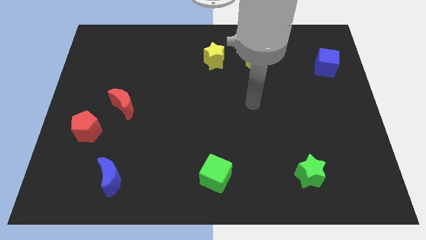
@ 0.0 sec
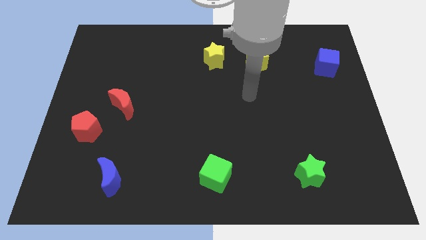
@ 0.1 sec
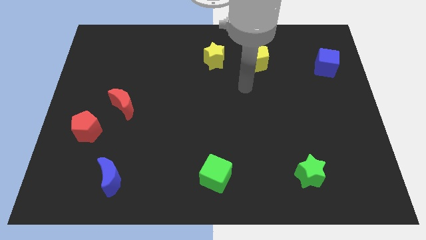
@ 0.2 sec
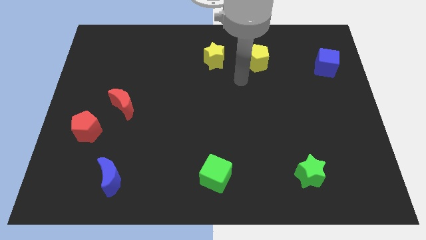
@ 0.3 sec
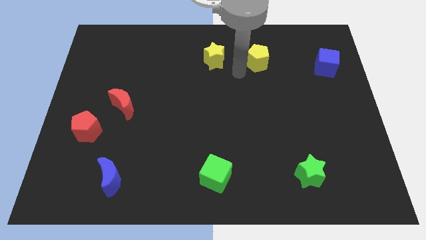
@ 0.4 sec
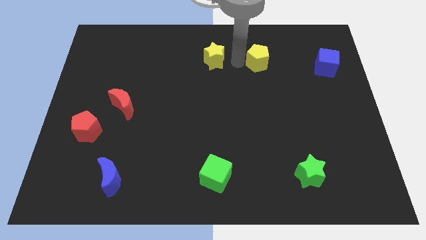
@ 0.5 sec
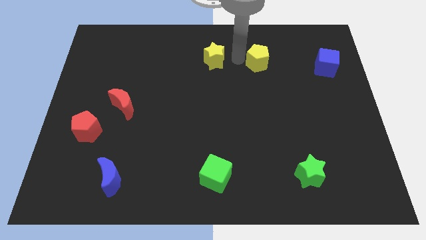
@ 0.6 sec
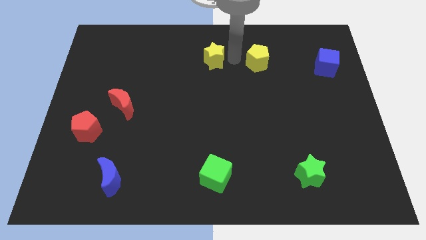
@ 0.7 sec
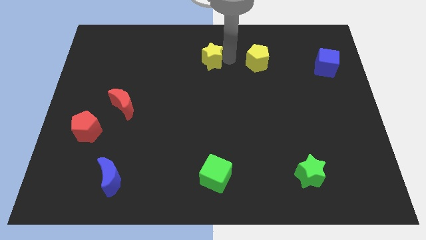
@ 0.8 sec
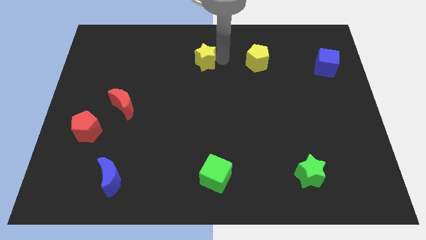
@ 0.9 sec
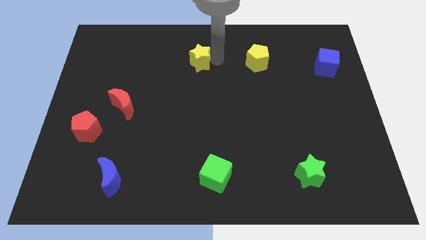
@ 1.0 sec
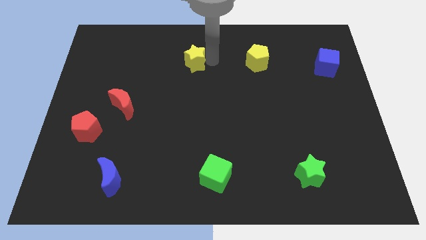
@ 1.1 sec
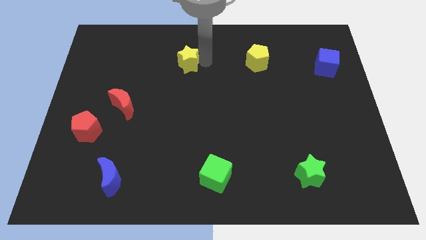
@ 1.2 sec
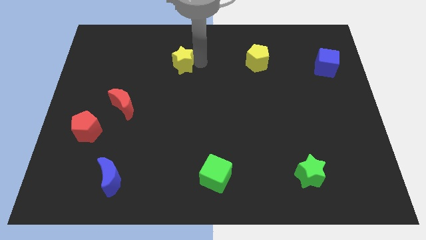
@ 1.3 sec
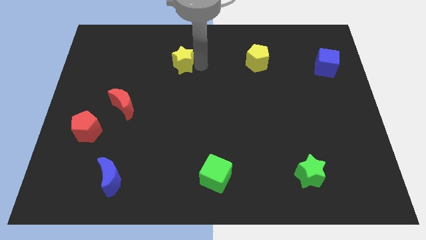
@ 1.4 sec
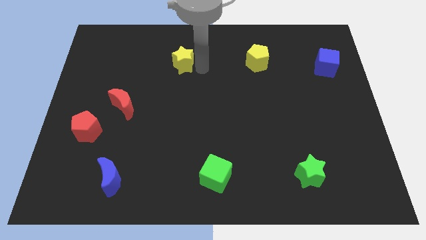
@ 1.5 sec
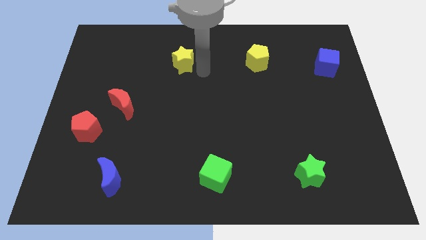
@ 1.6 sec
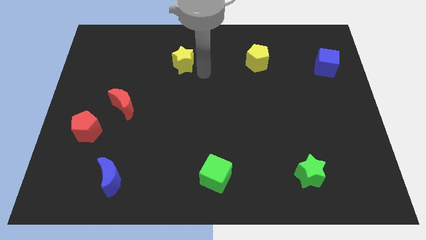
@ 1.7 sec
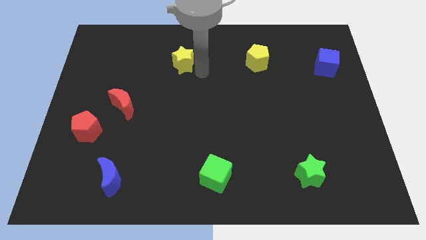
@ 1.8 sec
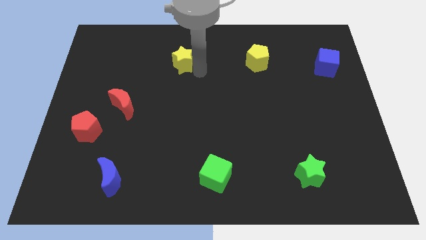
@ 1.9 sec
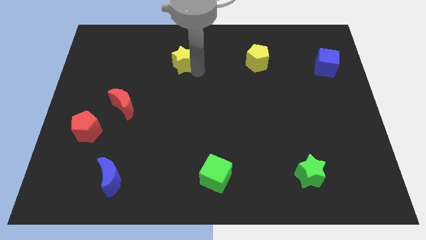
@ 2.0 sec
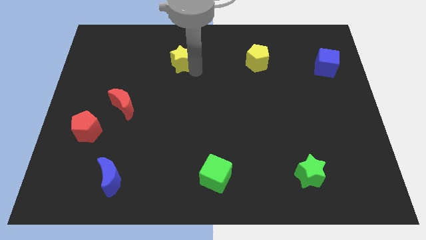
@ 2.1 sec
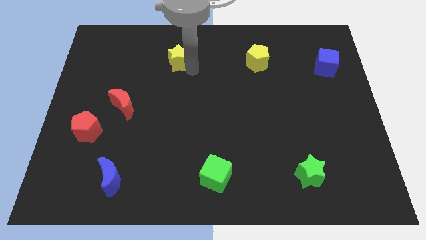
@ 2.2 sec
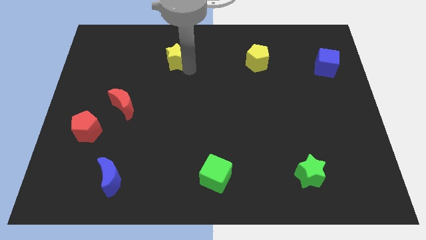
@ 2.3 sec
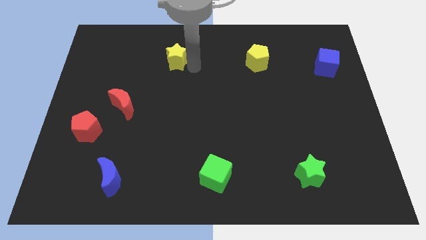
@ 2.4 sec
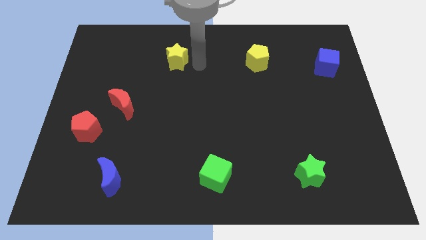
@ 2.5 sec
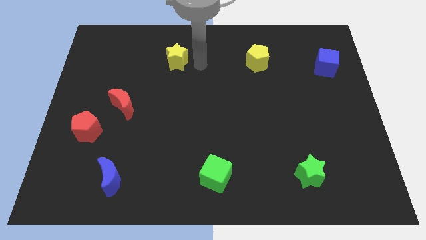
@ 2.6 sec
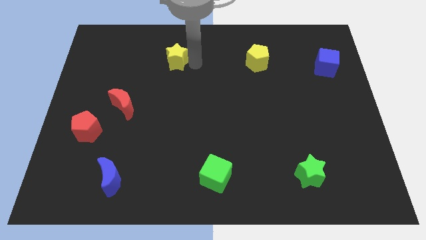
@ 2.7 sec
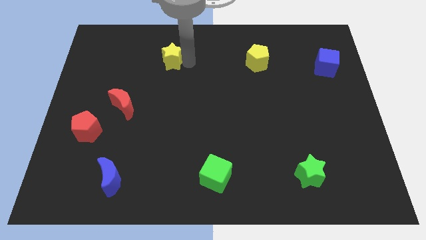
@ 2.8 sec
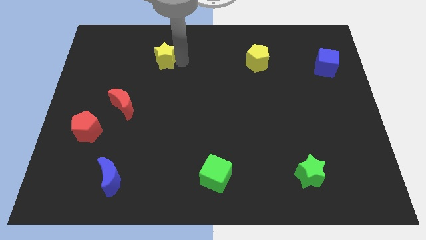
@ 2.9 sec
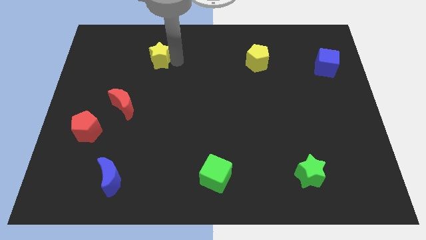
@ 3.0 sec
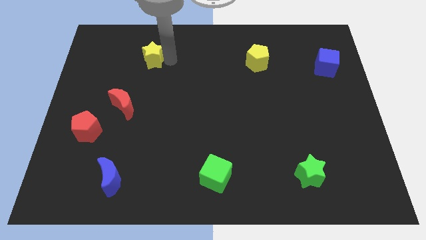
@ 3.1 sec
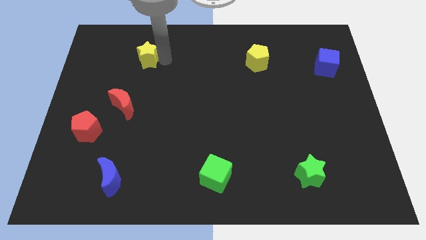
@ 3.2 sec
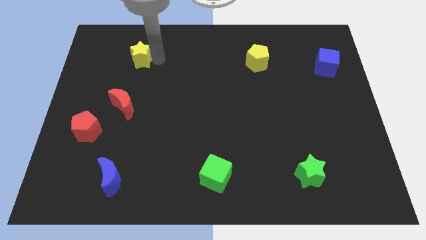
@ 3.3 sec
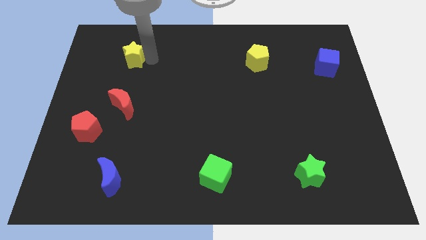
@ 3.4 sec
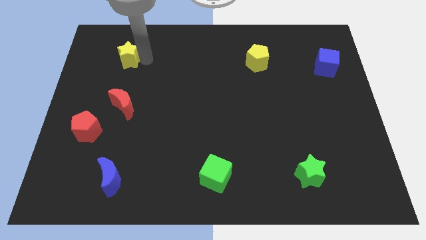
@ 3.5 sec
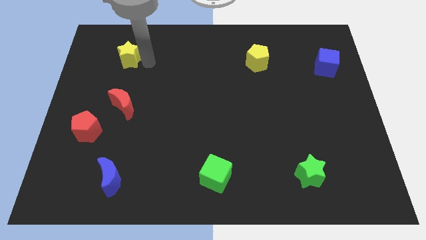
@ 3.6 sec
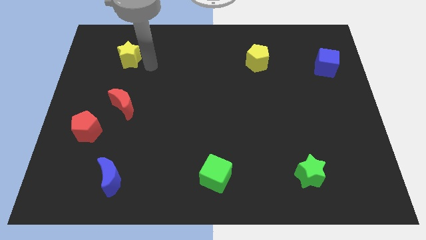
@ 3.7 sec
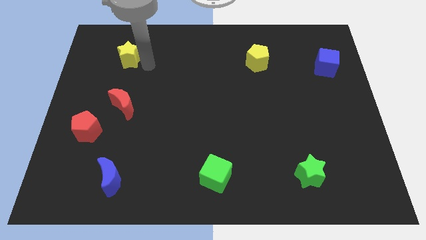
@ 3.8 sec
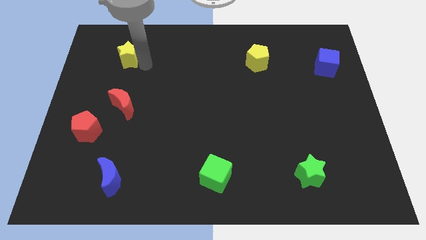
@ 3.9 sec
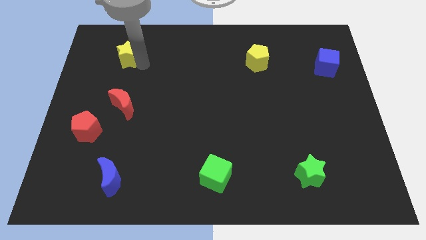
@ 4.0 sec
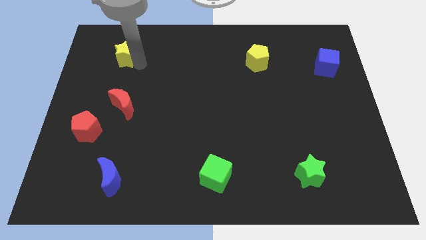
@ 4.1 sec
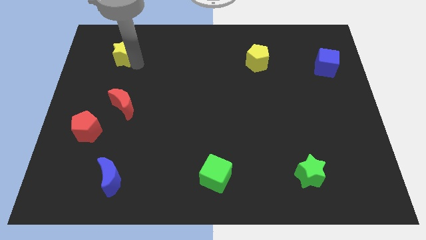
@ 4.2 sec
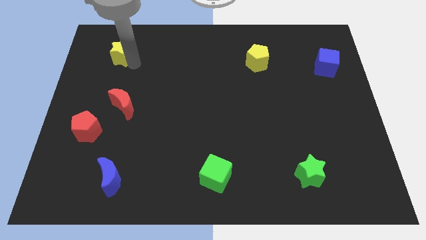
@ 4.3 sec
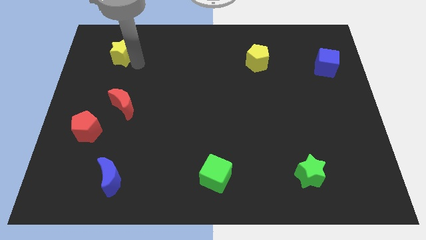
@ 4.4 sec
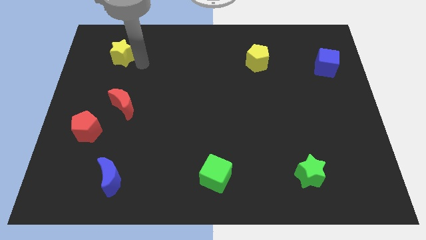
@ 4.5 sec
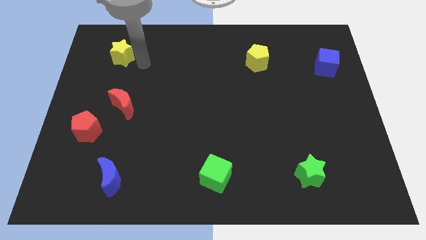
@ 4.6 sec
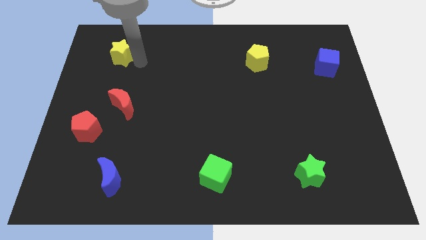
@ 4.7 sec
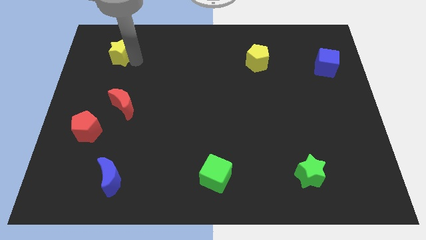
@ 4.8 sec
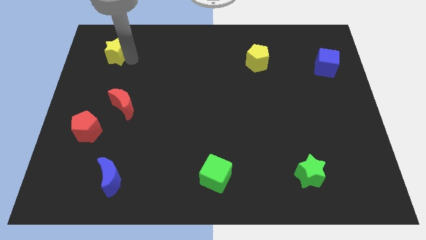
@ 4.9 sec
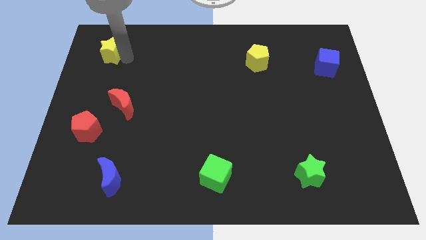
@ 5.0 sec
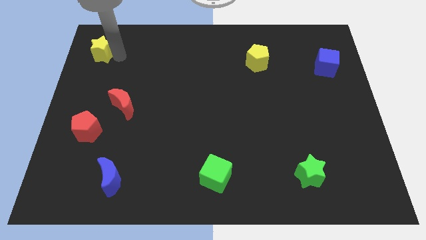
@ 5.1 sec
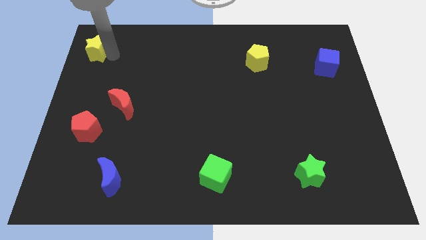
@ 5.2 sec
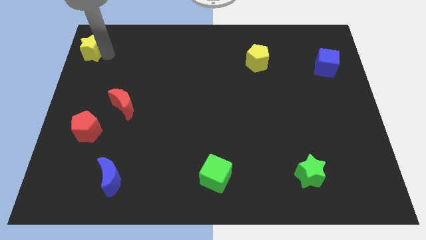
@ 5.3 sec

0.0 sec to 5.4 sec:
put the yellow star to the upper left corner

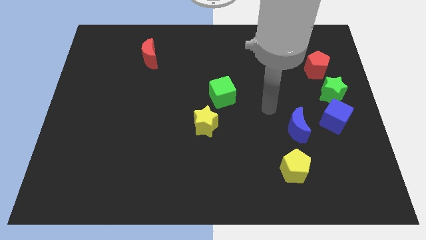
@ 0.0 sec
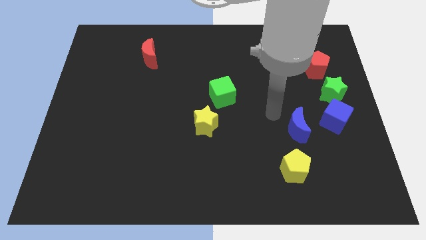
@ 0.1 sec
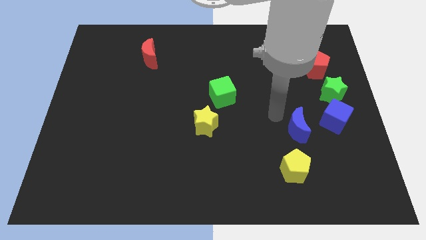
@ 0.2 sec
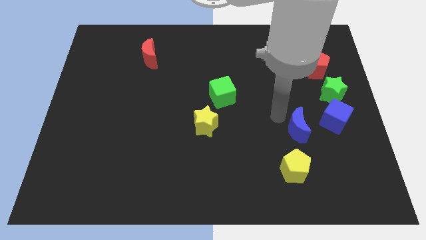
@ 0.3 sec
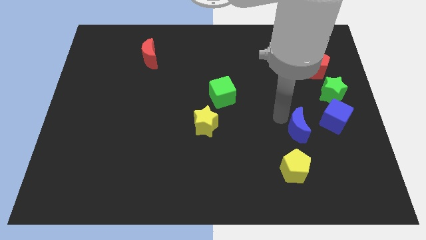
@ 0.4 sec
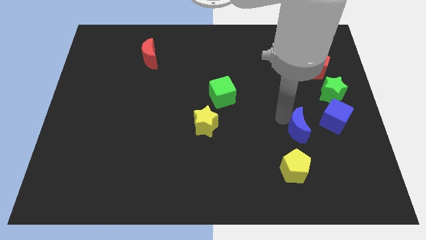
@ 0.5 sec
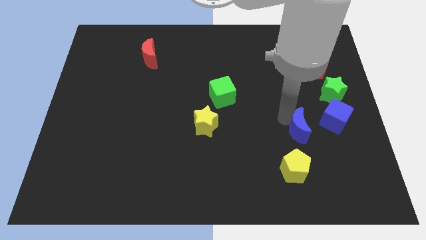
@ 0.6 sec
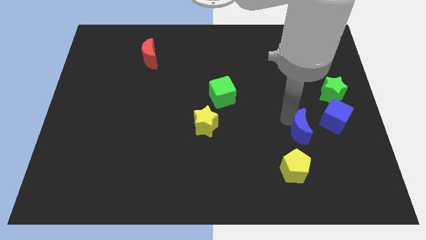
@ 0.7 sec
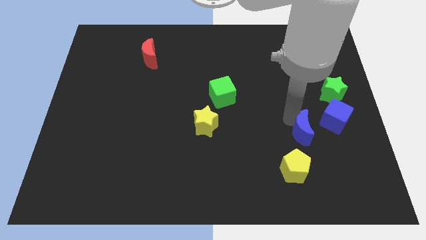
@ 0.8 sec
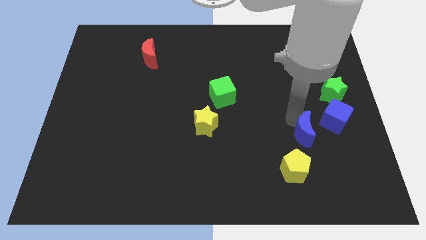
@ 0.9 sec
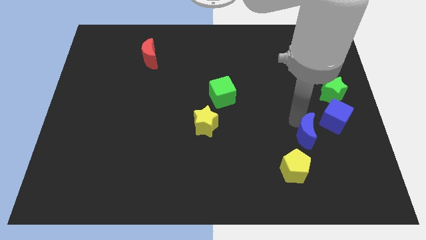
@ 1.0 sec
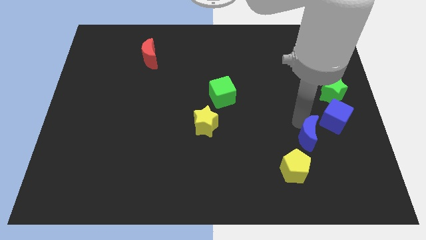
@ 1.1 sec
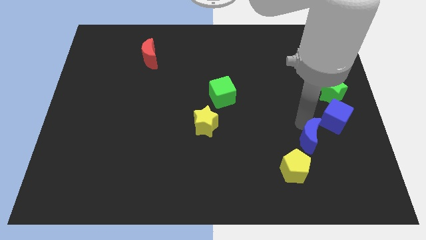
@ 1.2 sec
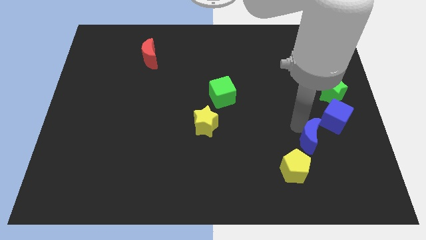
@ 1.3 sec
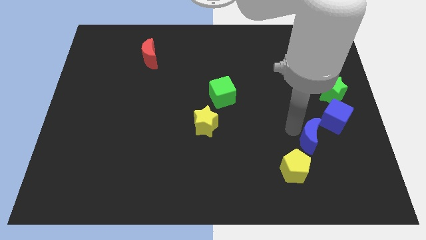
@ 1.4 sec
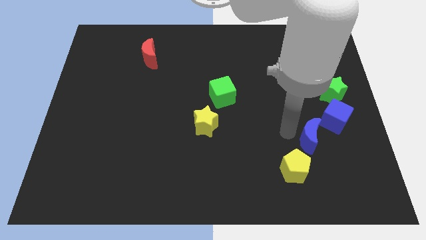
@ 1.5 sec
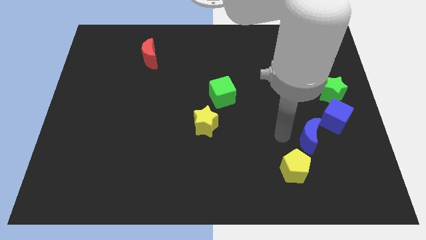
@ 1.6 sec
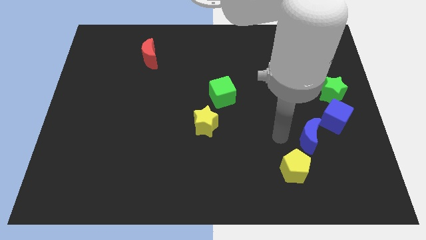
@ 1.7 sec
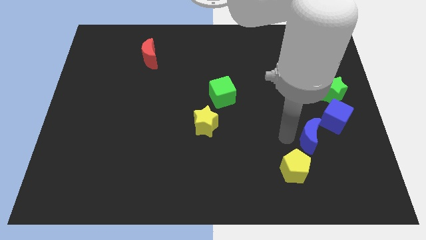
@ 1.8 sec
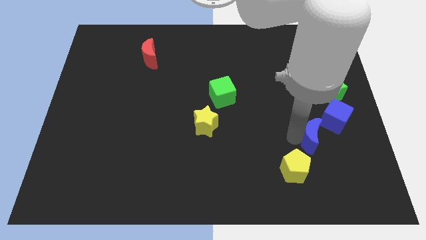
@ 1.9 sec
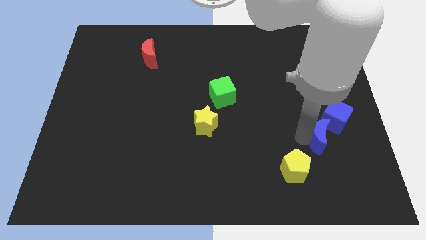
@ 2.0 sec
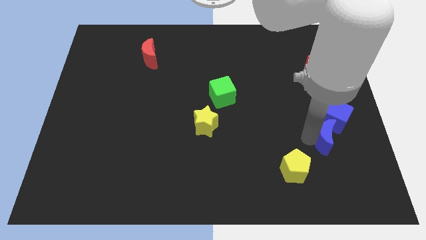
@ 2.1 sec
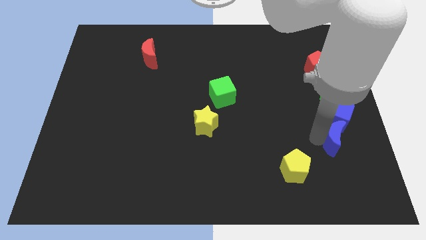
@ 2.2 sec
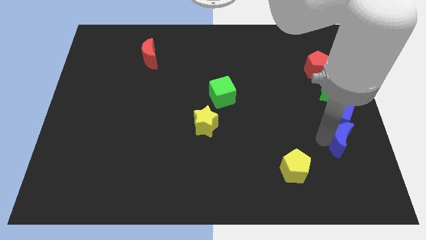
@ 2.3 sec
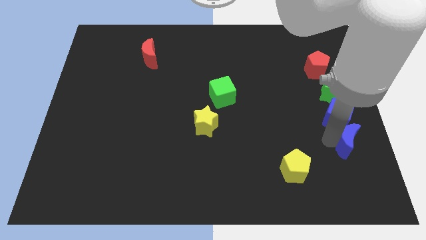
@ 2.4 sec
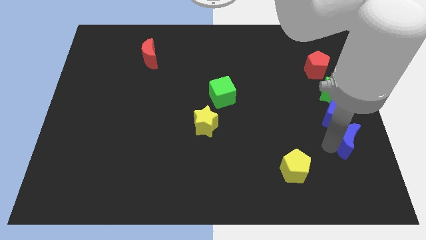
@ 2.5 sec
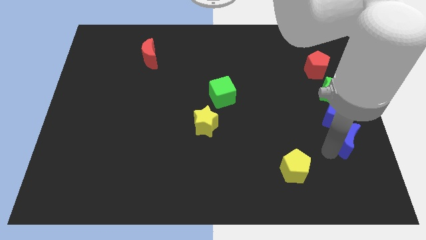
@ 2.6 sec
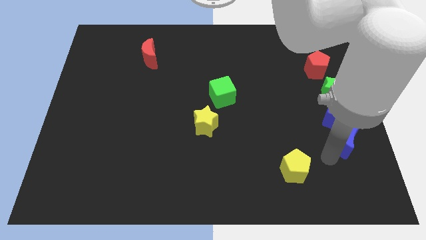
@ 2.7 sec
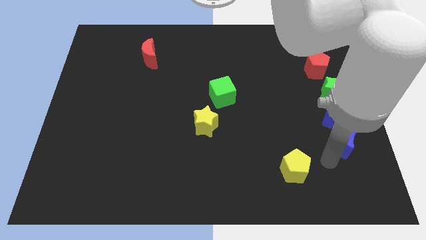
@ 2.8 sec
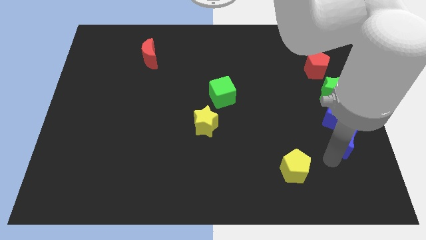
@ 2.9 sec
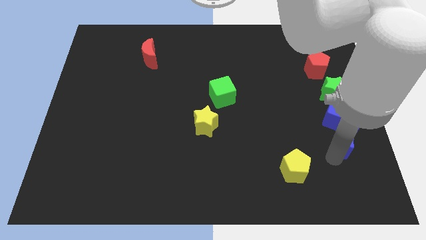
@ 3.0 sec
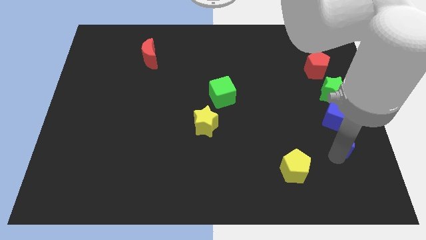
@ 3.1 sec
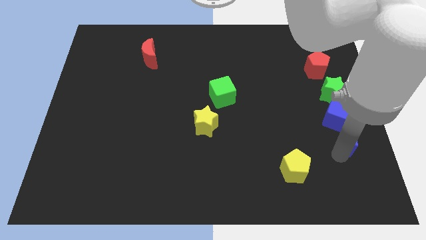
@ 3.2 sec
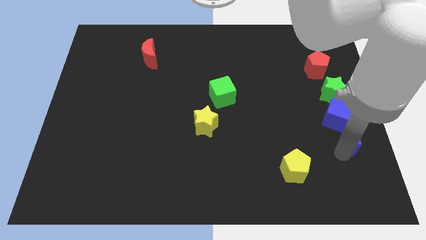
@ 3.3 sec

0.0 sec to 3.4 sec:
put the blue moon to the center right
